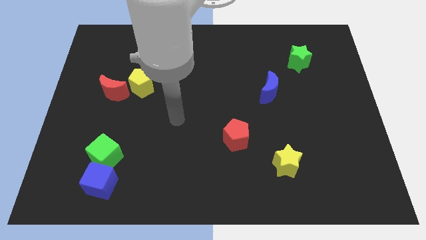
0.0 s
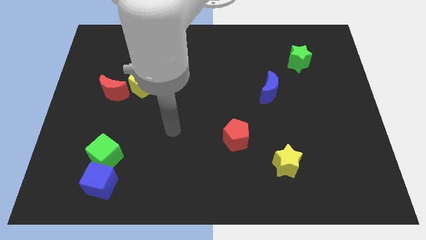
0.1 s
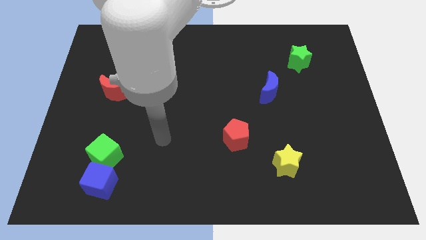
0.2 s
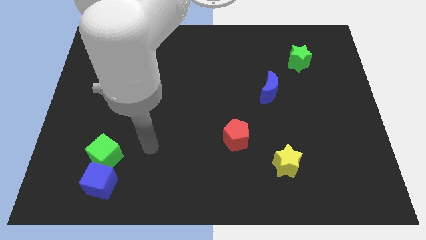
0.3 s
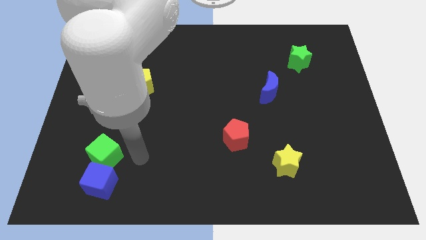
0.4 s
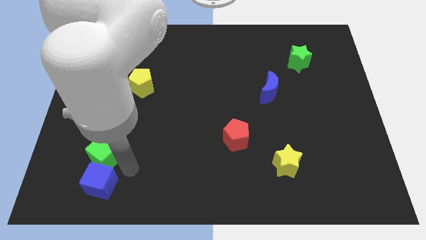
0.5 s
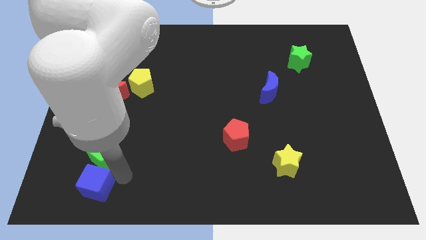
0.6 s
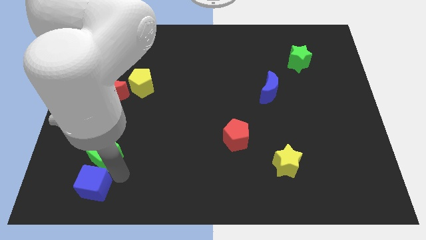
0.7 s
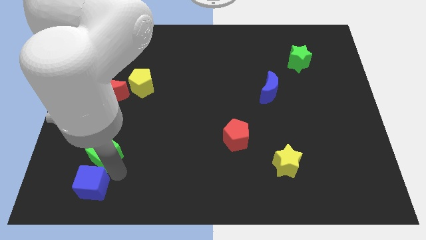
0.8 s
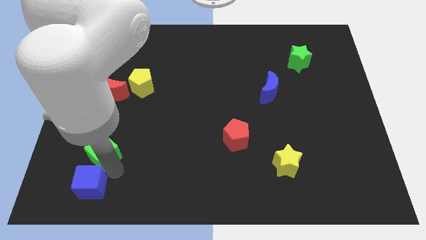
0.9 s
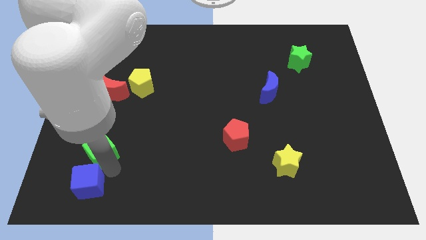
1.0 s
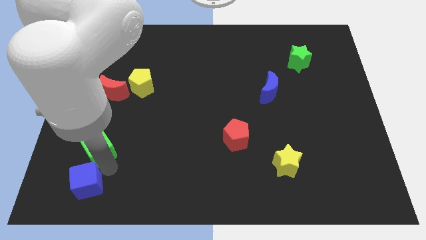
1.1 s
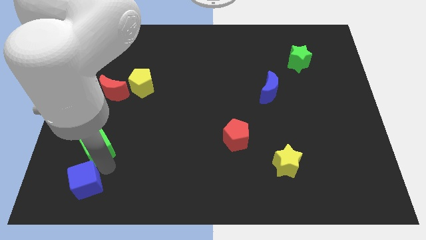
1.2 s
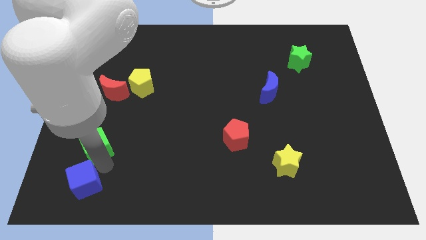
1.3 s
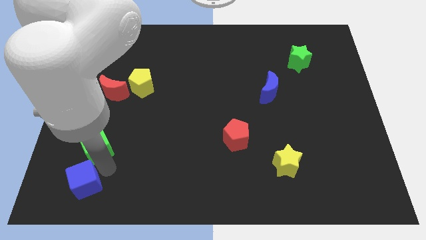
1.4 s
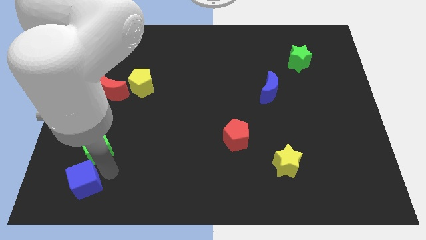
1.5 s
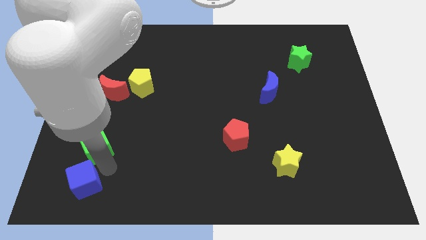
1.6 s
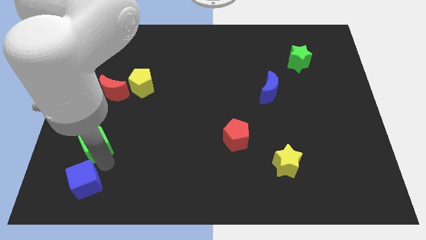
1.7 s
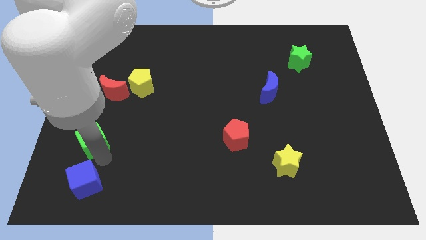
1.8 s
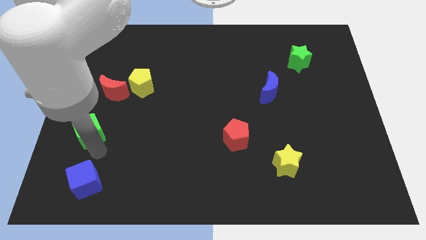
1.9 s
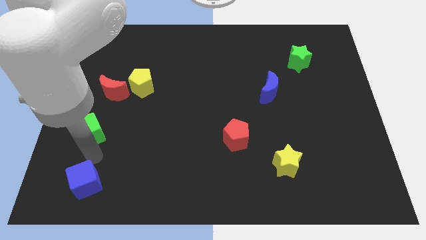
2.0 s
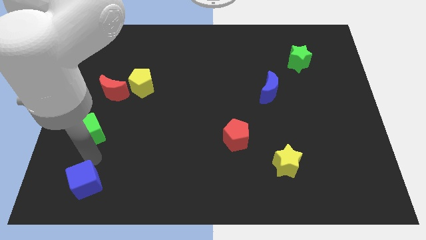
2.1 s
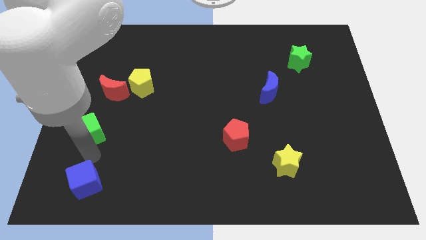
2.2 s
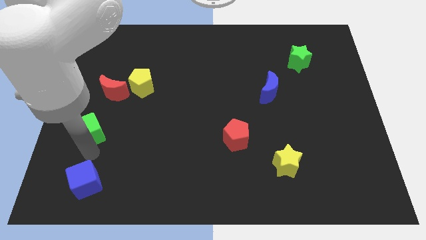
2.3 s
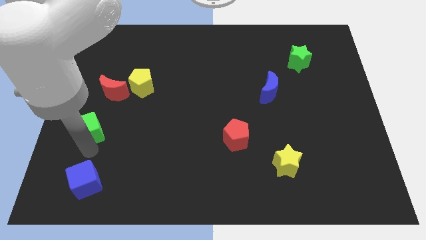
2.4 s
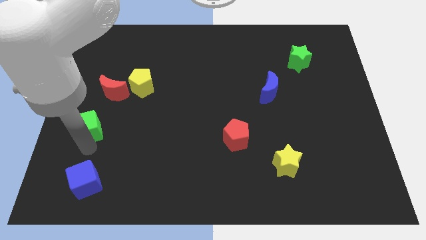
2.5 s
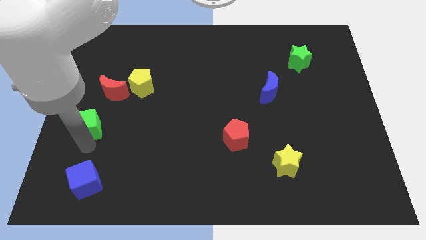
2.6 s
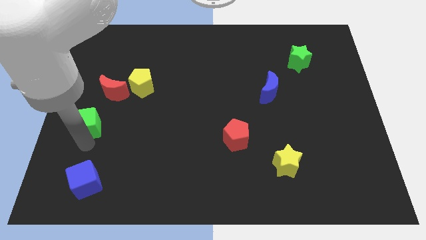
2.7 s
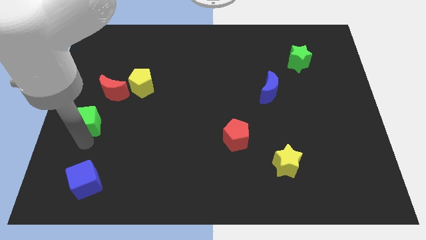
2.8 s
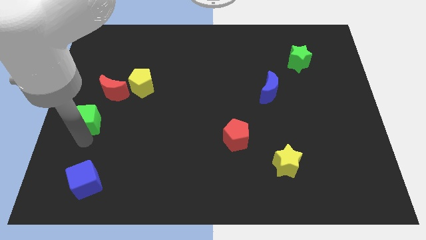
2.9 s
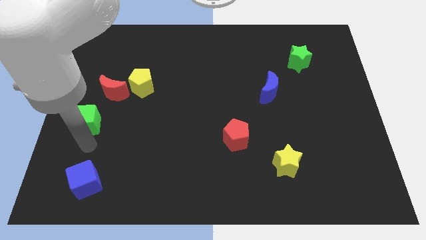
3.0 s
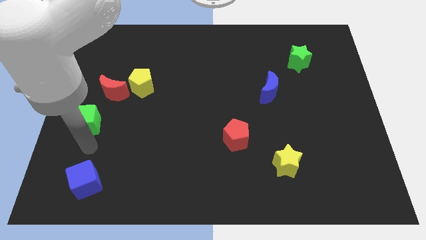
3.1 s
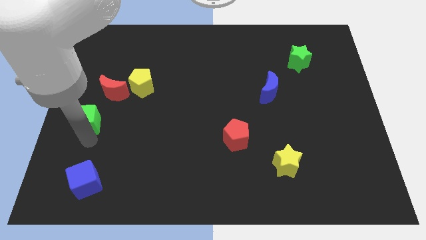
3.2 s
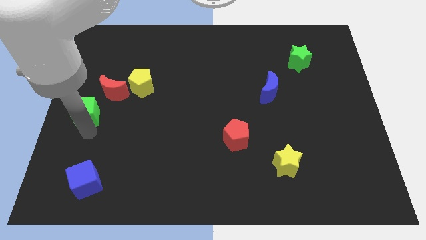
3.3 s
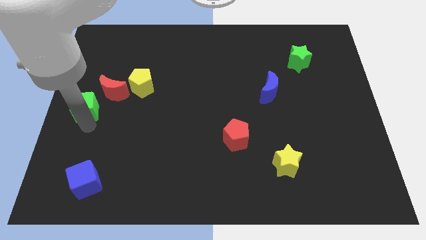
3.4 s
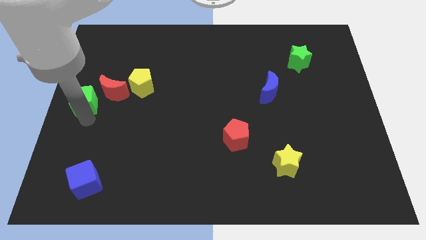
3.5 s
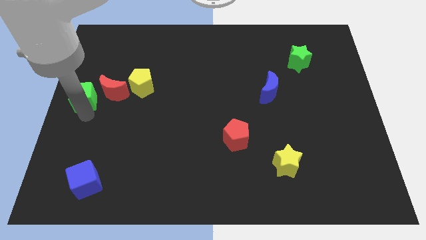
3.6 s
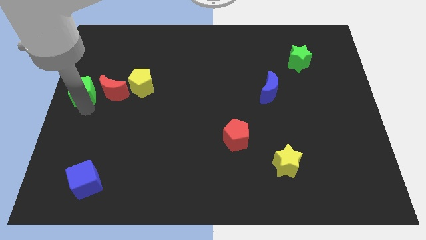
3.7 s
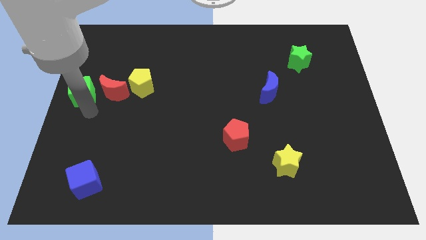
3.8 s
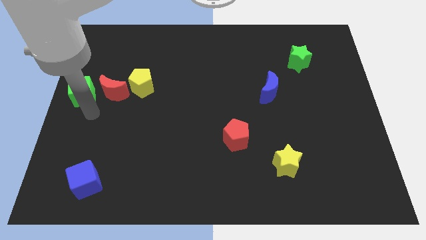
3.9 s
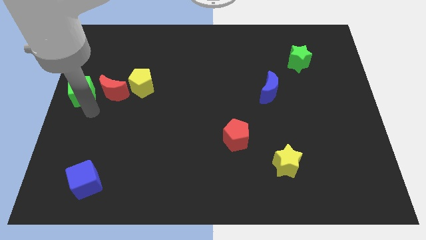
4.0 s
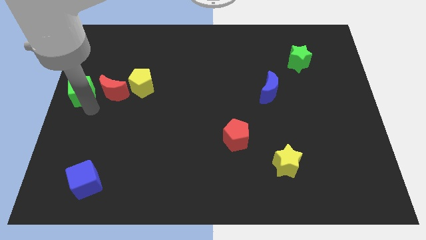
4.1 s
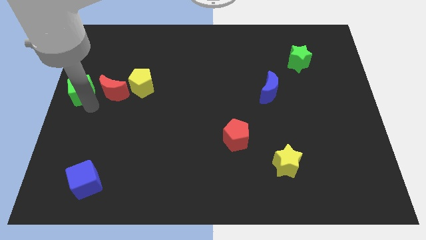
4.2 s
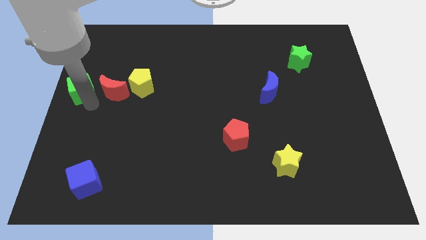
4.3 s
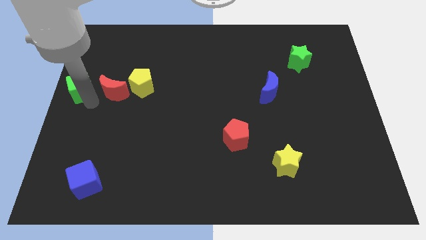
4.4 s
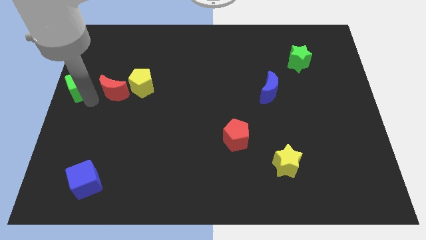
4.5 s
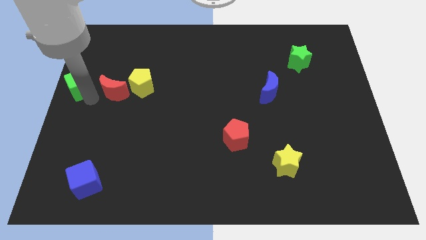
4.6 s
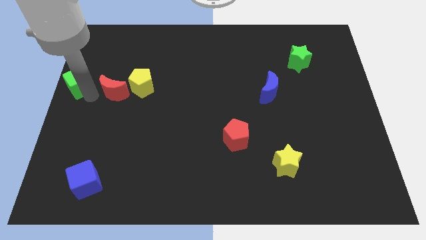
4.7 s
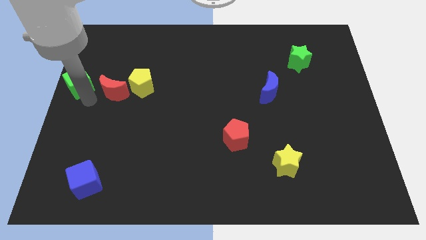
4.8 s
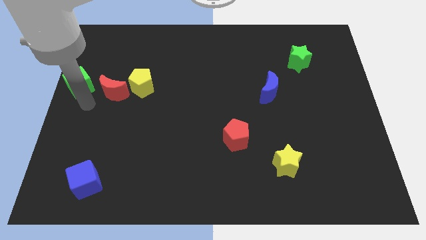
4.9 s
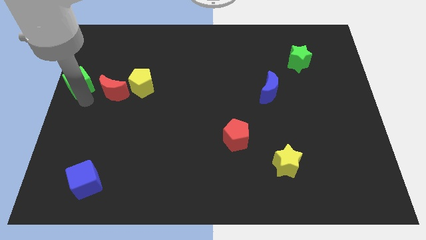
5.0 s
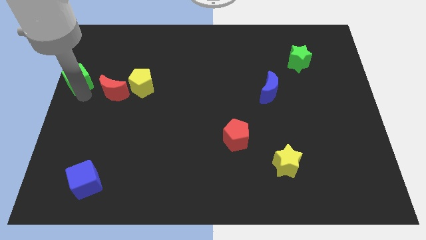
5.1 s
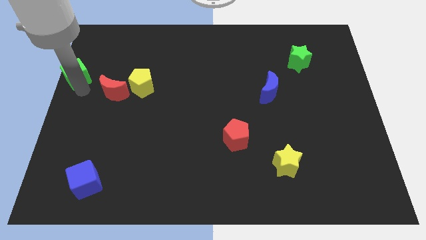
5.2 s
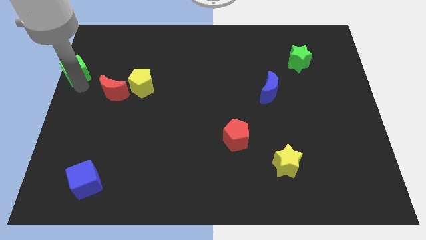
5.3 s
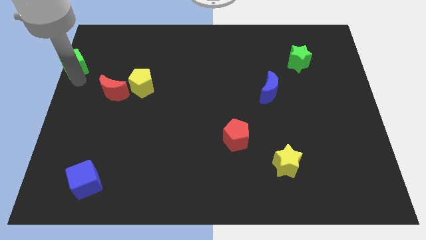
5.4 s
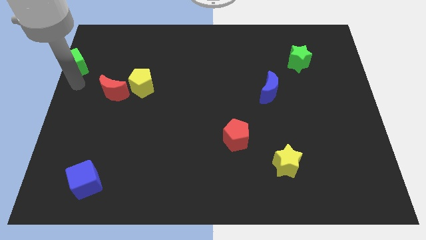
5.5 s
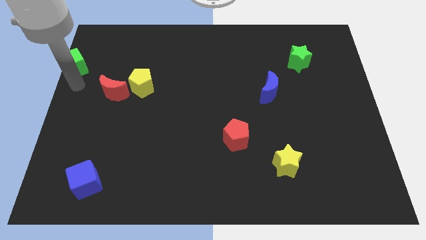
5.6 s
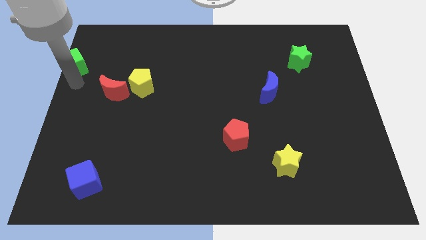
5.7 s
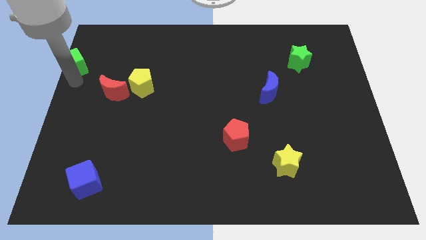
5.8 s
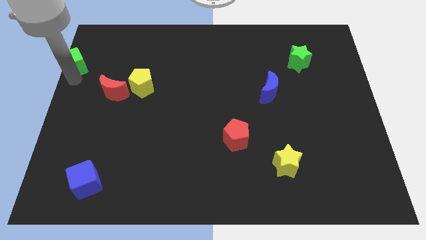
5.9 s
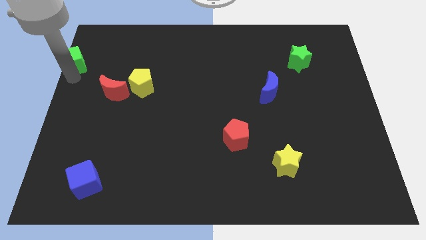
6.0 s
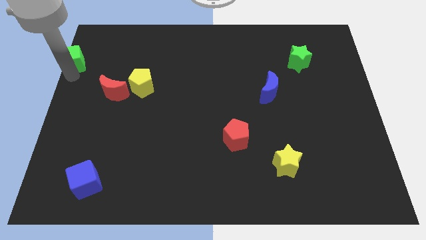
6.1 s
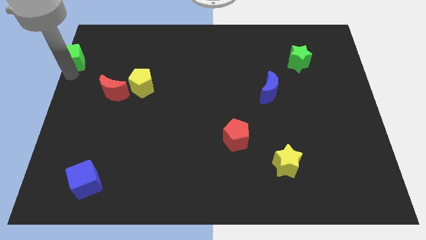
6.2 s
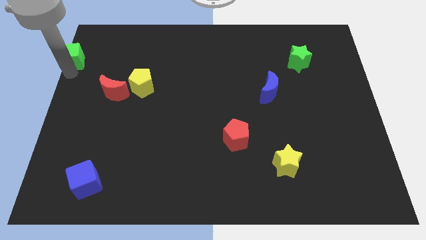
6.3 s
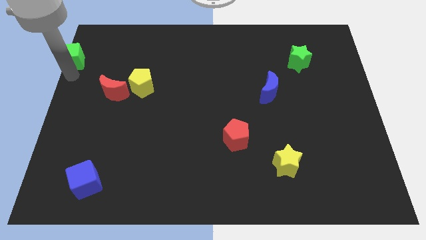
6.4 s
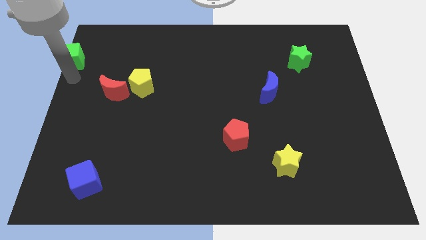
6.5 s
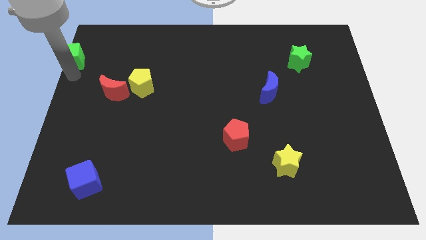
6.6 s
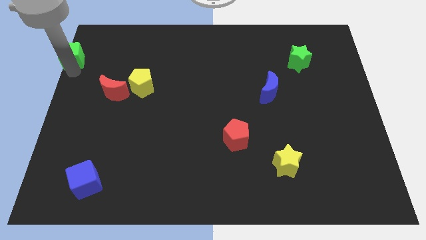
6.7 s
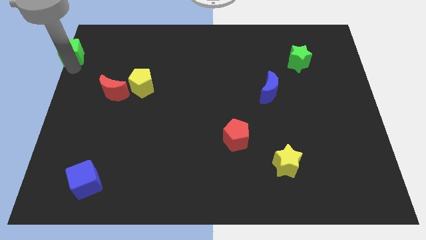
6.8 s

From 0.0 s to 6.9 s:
move the green cube to the upper left corner
